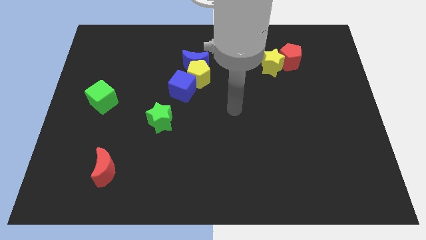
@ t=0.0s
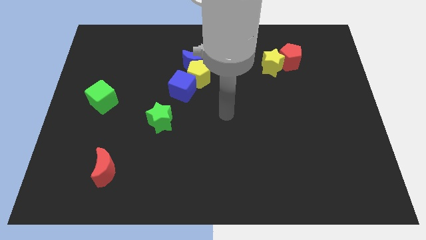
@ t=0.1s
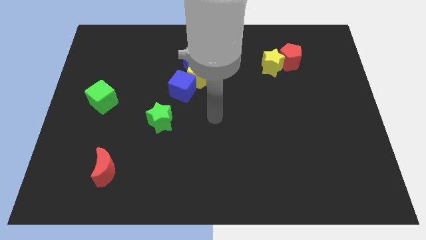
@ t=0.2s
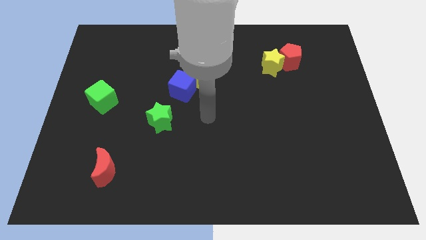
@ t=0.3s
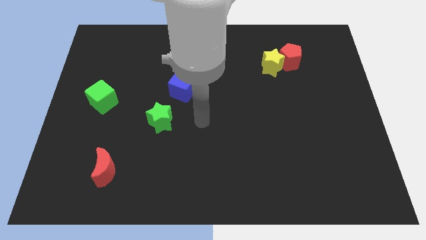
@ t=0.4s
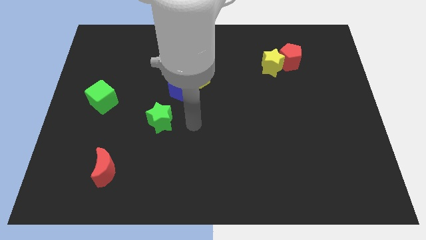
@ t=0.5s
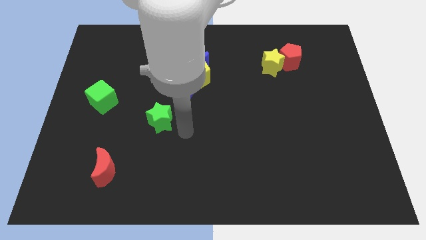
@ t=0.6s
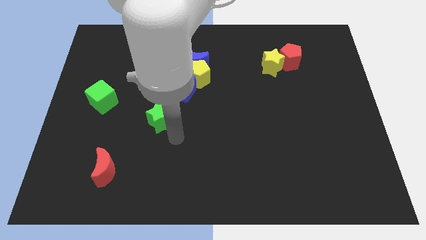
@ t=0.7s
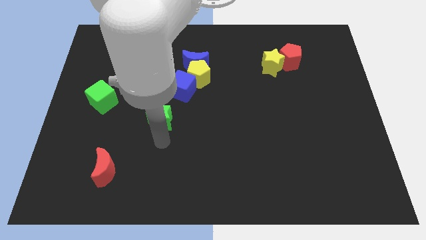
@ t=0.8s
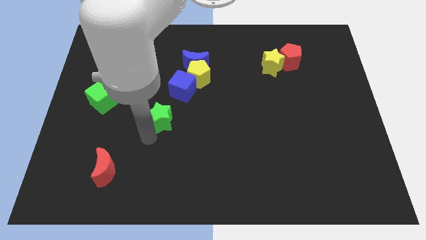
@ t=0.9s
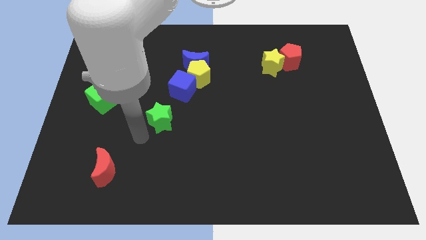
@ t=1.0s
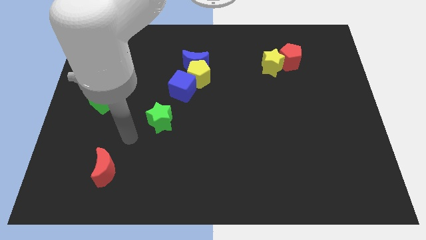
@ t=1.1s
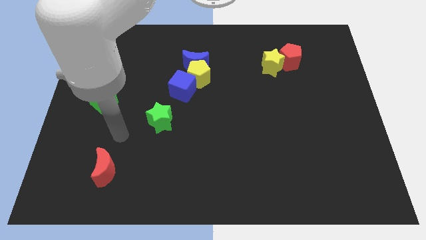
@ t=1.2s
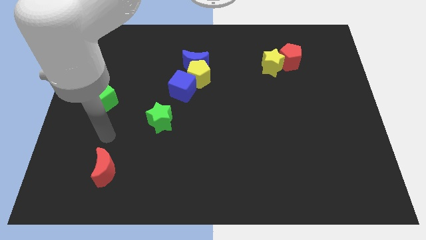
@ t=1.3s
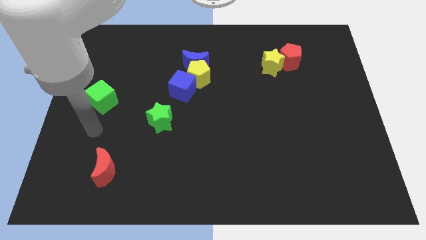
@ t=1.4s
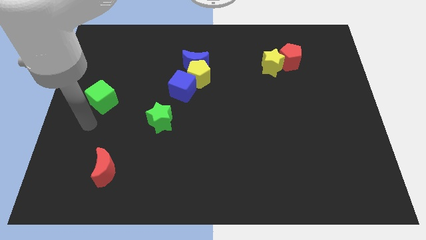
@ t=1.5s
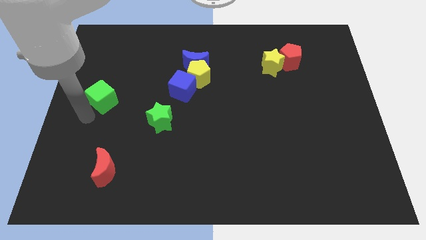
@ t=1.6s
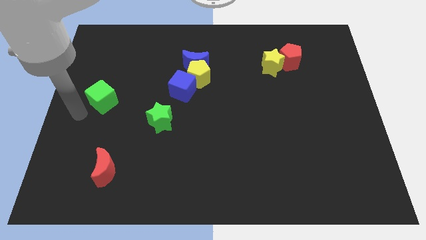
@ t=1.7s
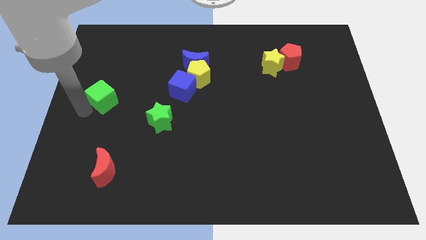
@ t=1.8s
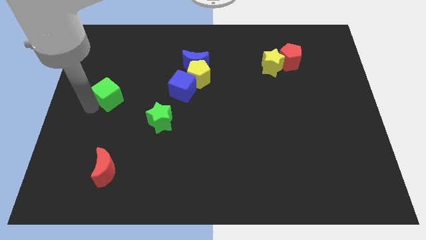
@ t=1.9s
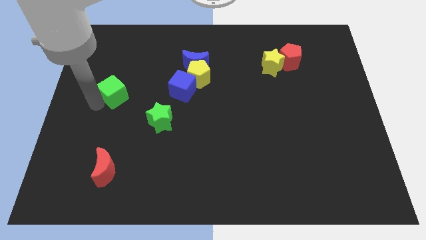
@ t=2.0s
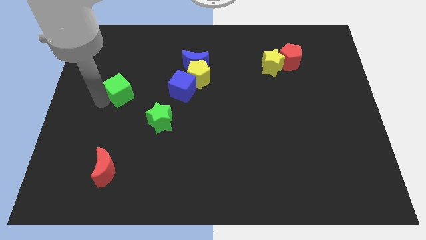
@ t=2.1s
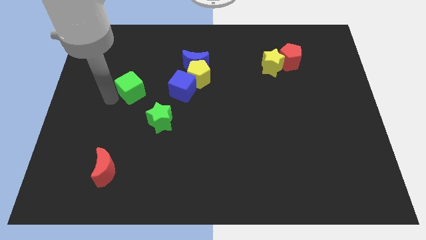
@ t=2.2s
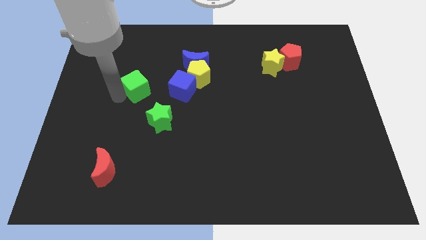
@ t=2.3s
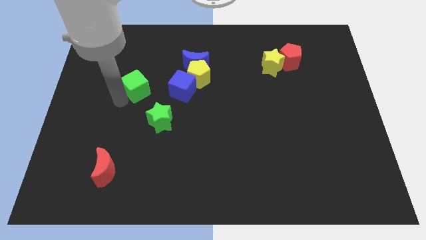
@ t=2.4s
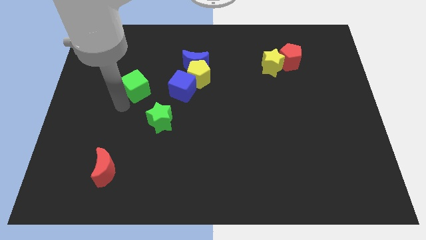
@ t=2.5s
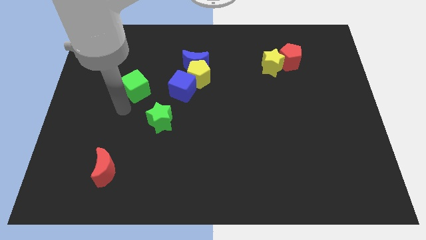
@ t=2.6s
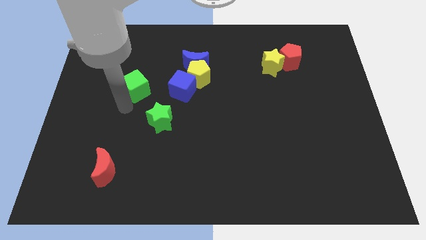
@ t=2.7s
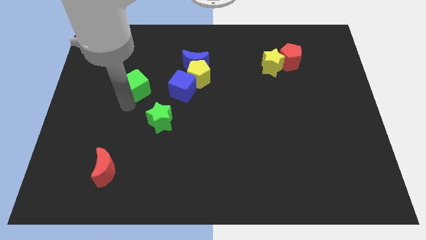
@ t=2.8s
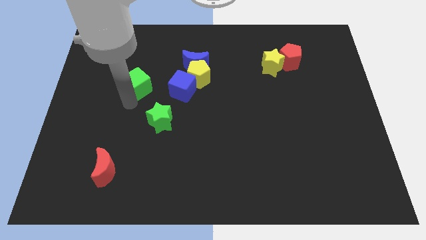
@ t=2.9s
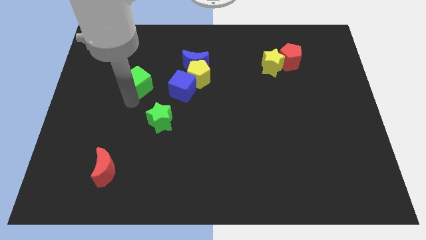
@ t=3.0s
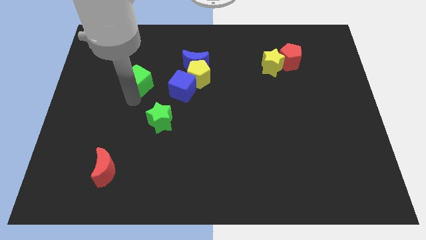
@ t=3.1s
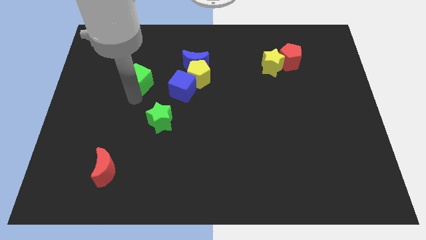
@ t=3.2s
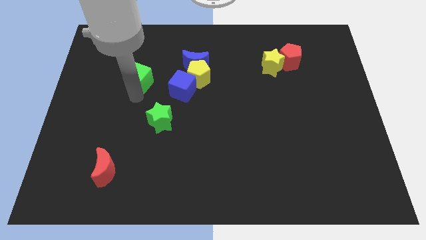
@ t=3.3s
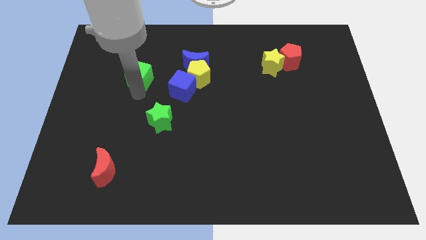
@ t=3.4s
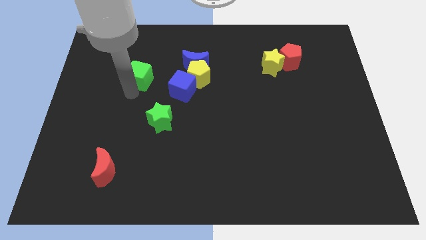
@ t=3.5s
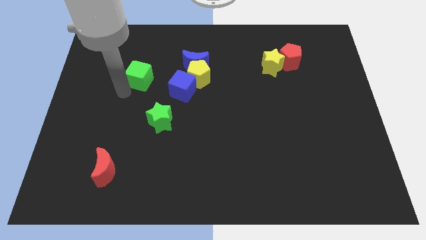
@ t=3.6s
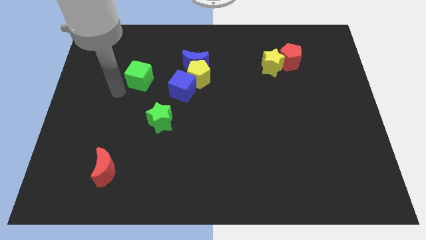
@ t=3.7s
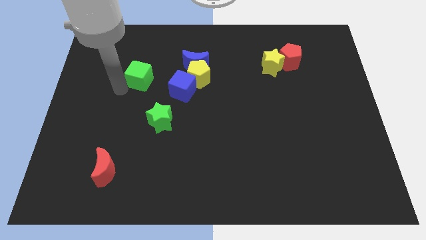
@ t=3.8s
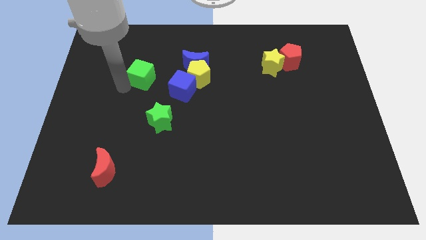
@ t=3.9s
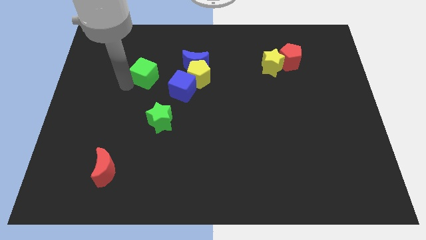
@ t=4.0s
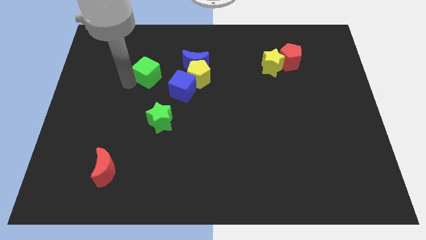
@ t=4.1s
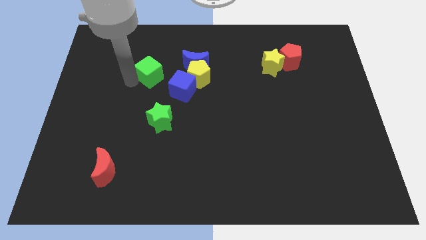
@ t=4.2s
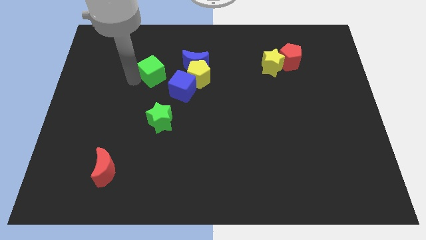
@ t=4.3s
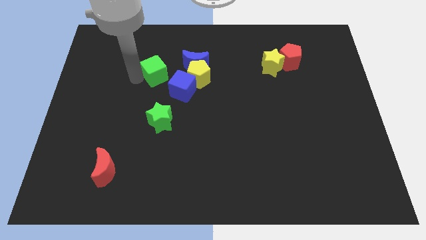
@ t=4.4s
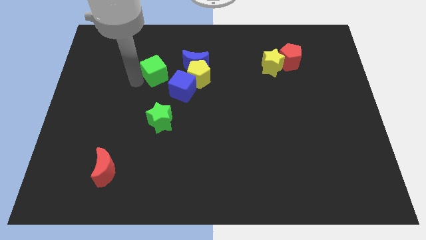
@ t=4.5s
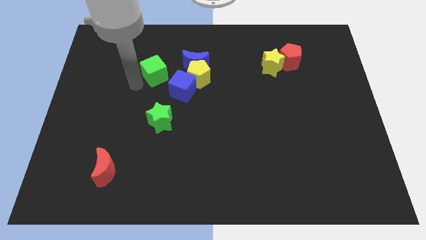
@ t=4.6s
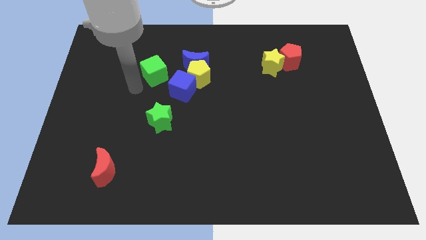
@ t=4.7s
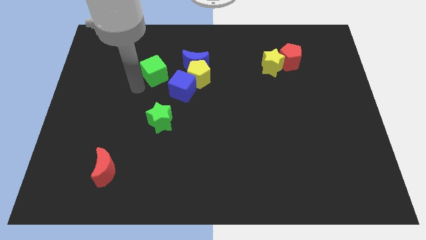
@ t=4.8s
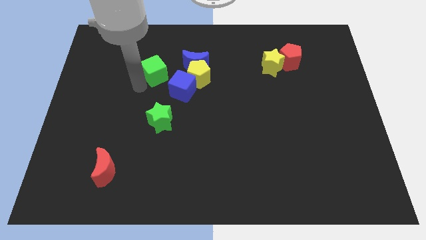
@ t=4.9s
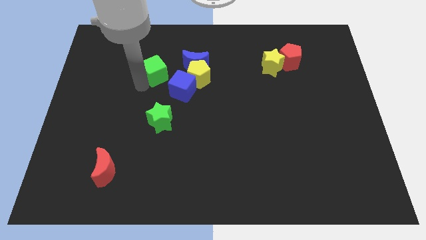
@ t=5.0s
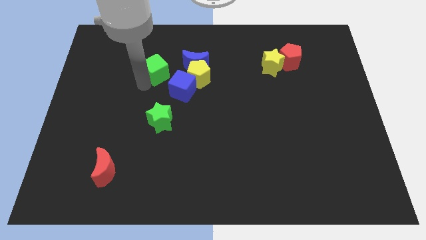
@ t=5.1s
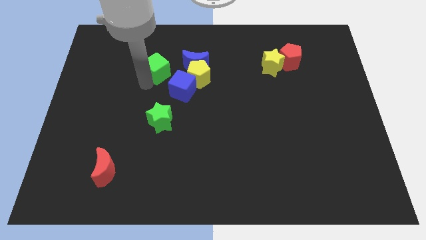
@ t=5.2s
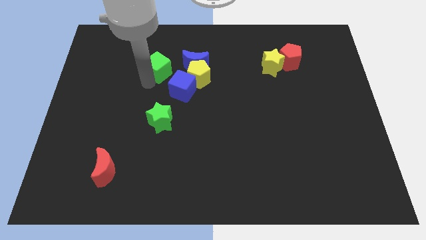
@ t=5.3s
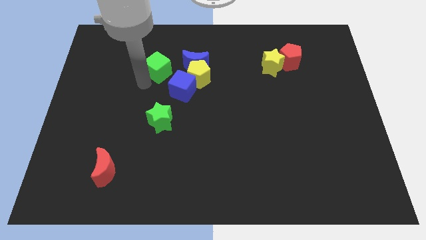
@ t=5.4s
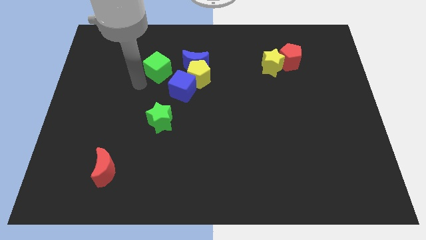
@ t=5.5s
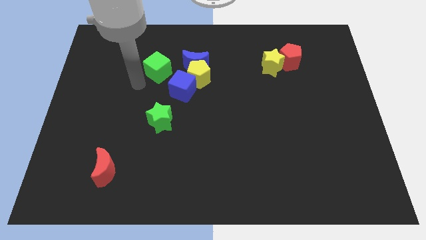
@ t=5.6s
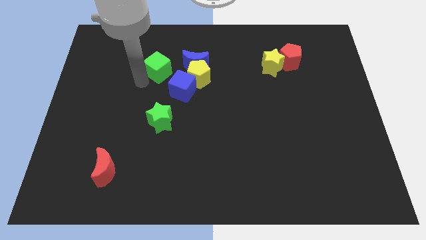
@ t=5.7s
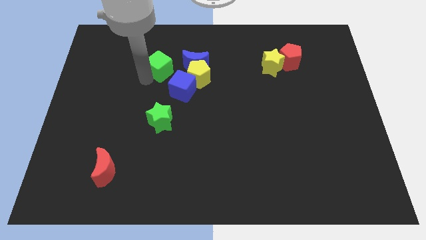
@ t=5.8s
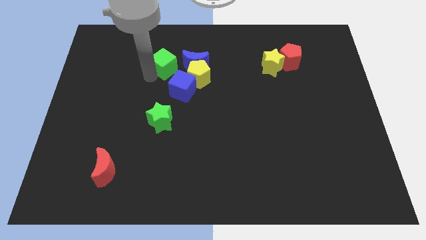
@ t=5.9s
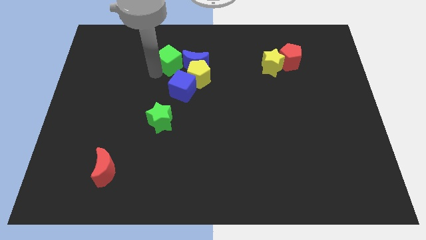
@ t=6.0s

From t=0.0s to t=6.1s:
slide the green cube to the top of the blue cube

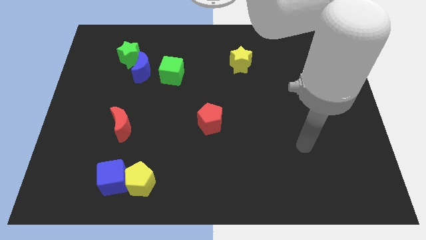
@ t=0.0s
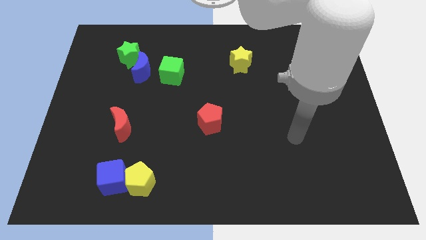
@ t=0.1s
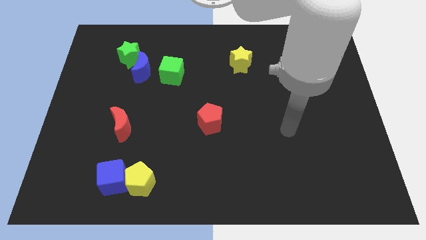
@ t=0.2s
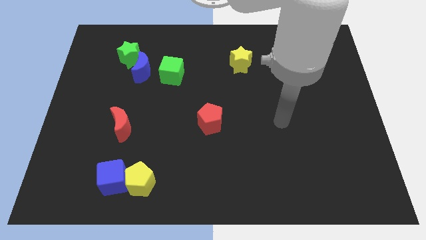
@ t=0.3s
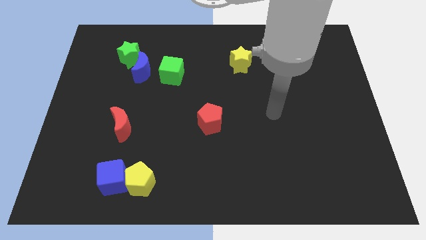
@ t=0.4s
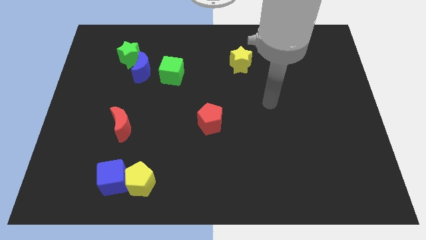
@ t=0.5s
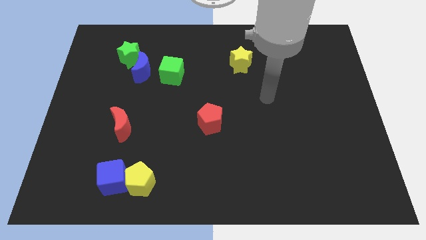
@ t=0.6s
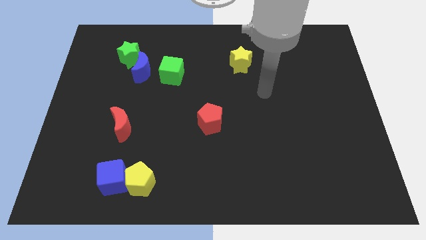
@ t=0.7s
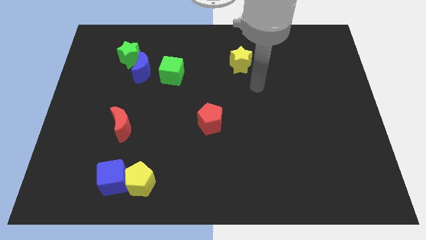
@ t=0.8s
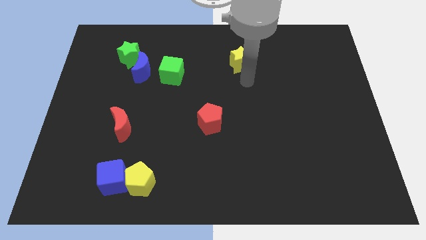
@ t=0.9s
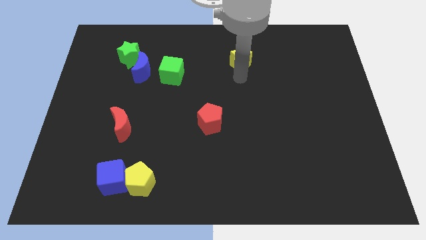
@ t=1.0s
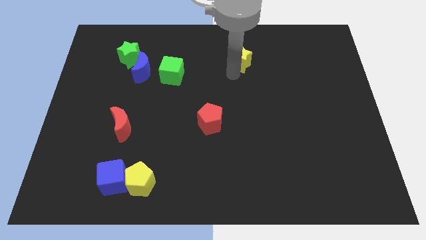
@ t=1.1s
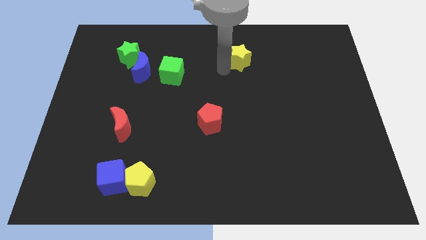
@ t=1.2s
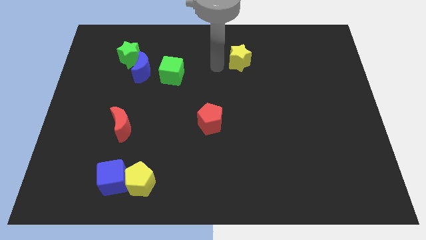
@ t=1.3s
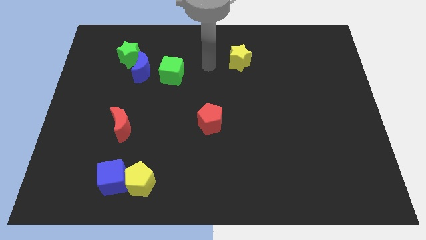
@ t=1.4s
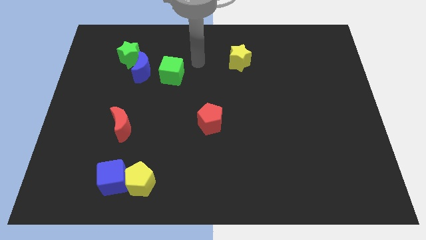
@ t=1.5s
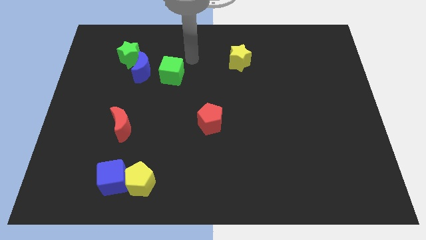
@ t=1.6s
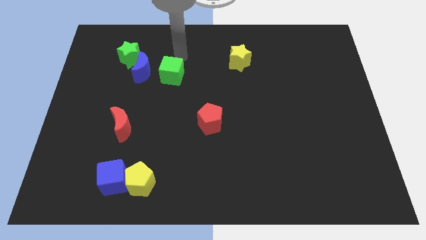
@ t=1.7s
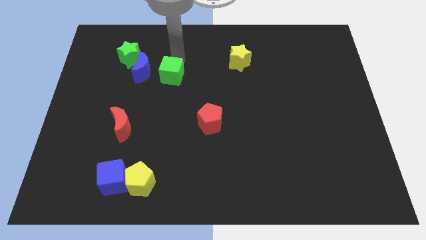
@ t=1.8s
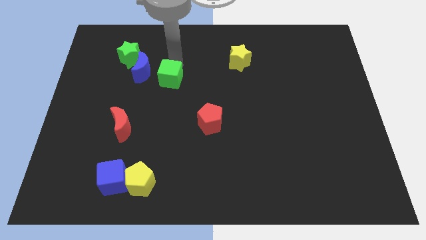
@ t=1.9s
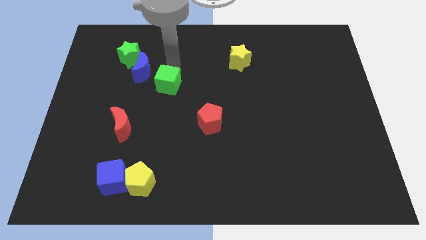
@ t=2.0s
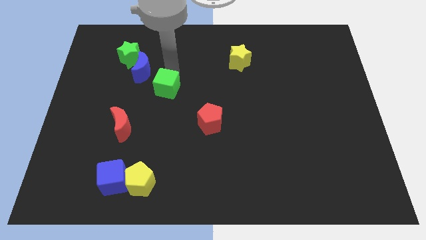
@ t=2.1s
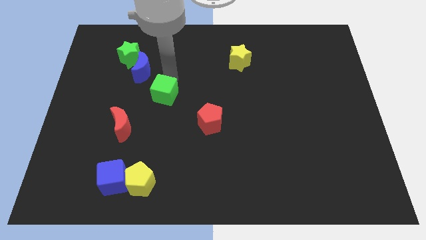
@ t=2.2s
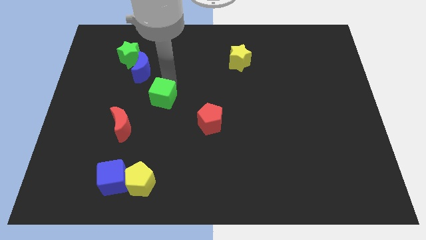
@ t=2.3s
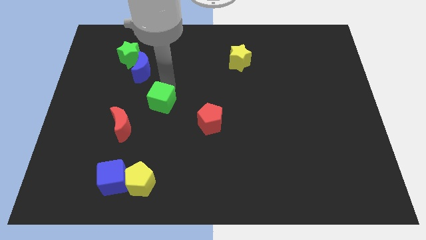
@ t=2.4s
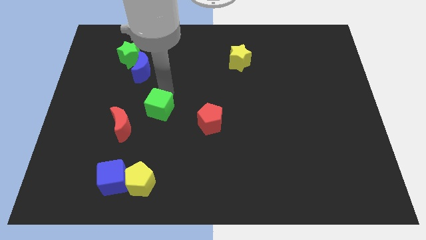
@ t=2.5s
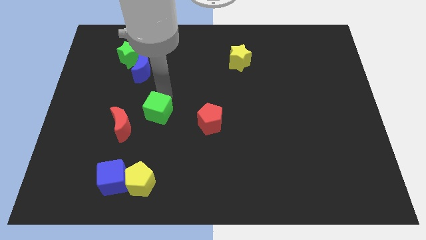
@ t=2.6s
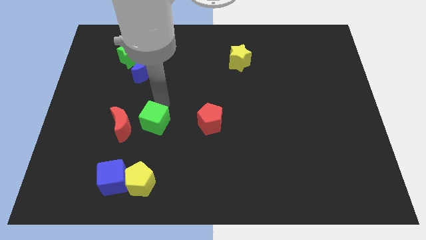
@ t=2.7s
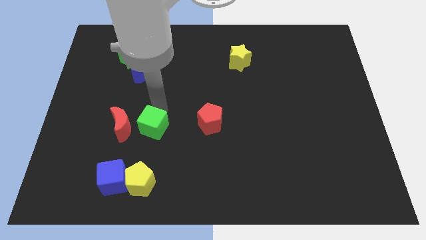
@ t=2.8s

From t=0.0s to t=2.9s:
put the green cube diagonally down and to the right of the red moon
